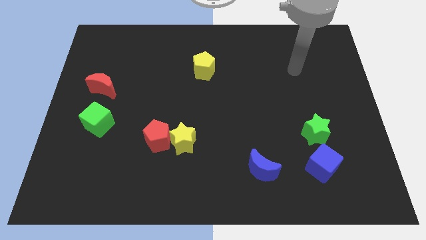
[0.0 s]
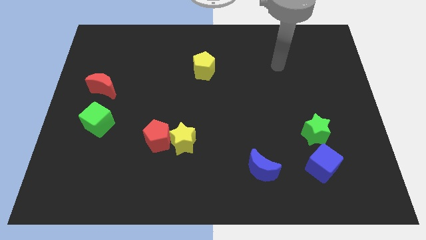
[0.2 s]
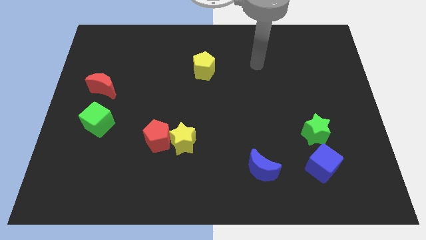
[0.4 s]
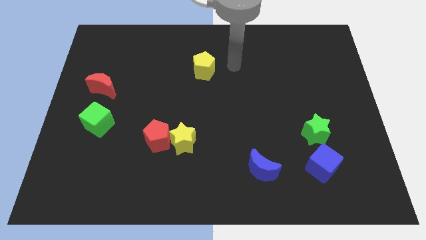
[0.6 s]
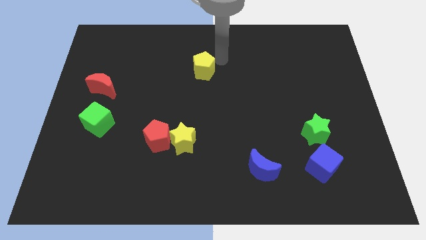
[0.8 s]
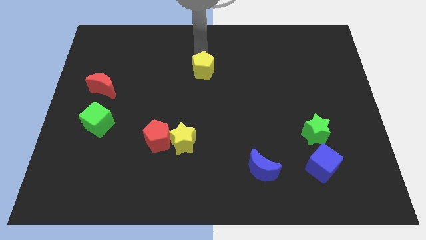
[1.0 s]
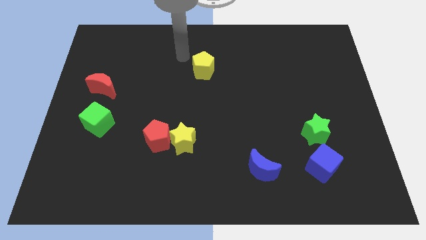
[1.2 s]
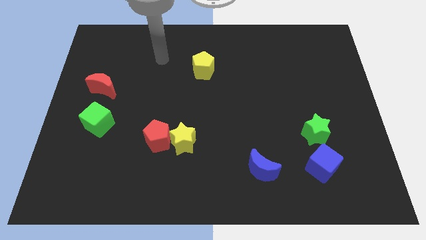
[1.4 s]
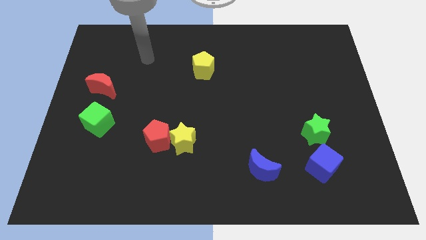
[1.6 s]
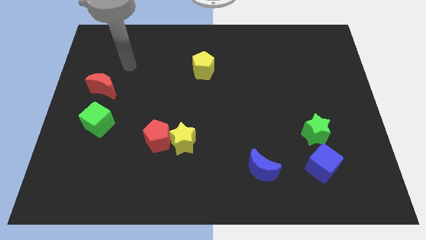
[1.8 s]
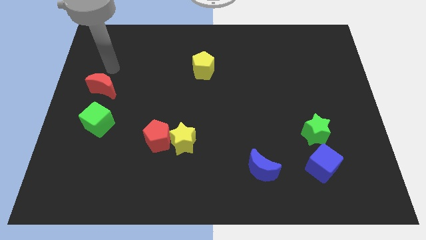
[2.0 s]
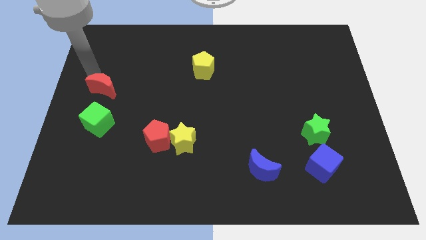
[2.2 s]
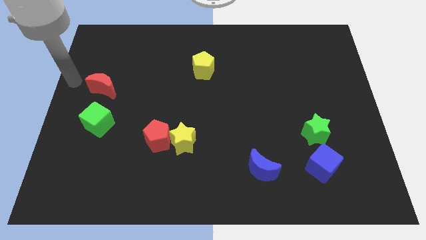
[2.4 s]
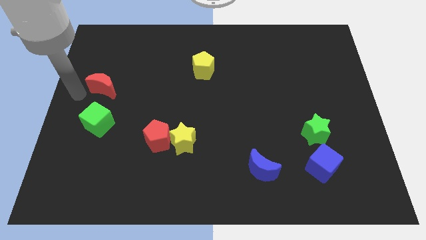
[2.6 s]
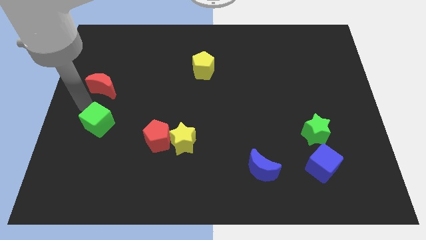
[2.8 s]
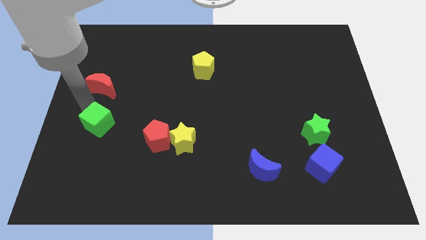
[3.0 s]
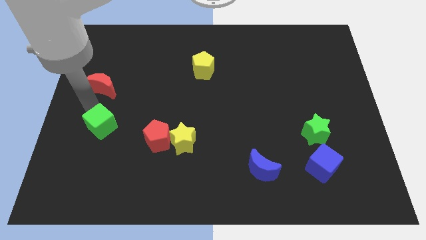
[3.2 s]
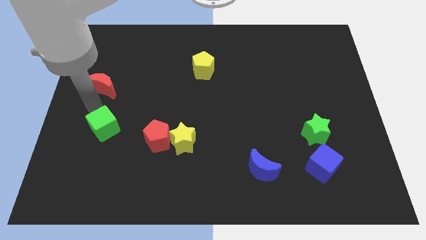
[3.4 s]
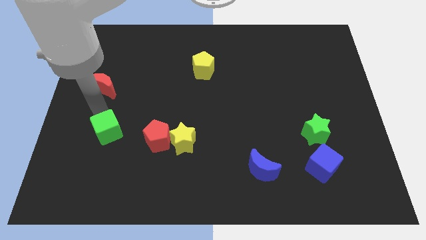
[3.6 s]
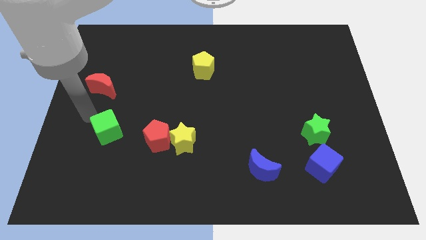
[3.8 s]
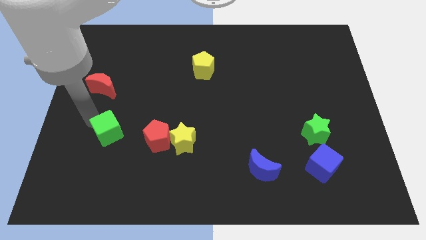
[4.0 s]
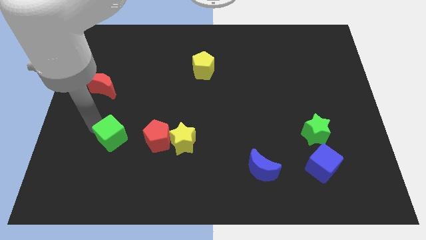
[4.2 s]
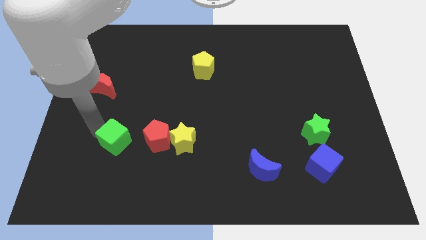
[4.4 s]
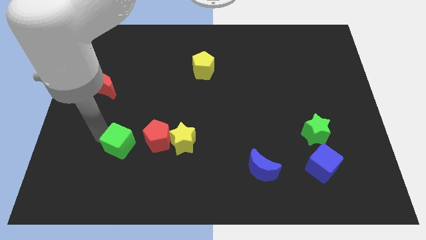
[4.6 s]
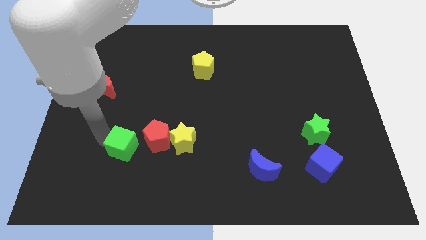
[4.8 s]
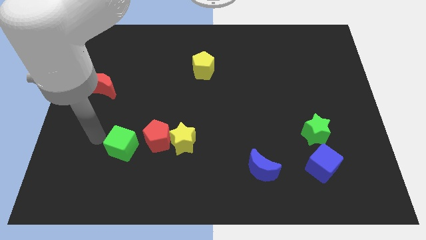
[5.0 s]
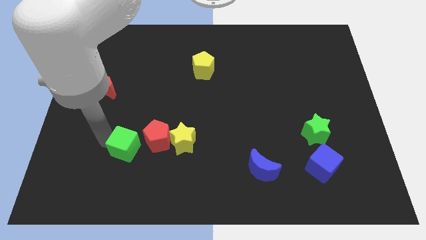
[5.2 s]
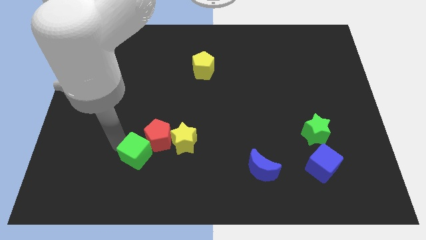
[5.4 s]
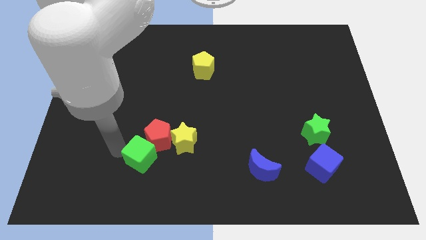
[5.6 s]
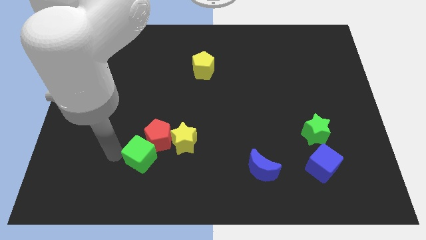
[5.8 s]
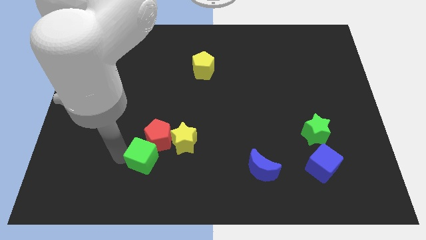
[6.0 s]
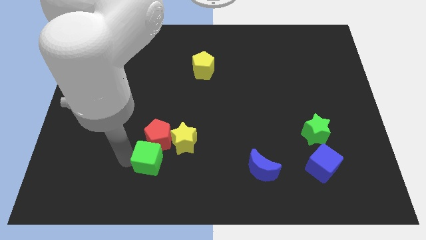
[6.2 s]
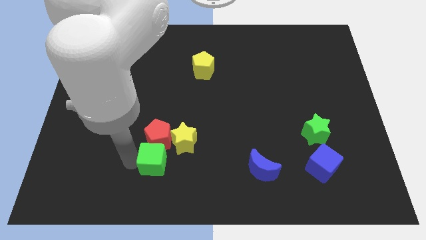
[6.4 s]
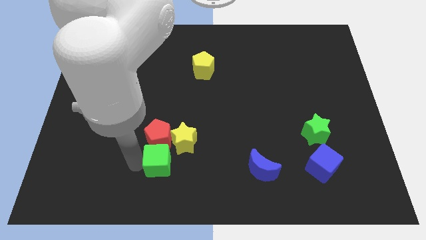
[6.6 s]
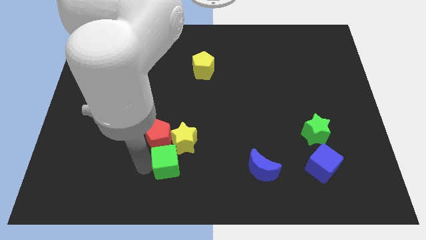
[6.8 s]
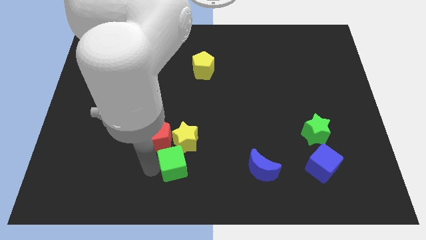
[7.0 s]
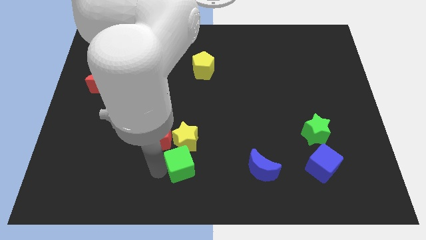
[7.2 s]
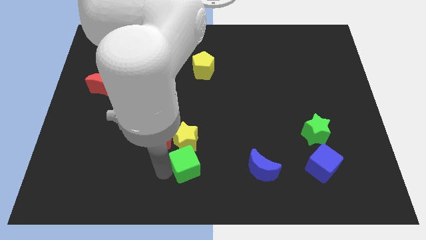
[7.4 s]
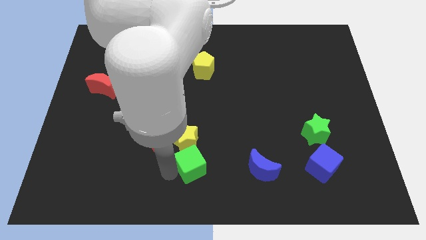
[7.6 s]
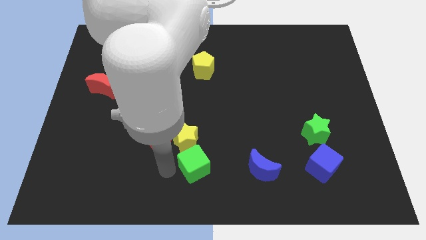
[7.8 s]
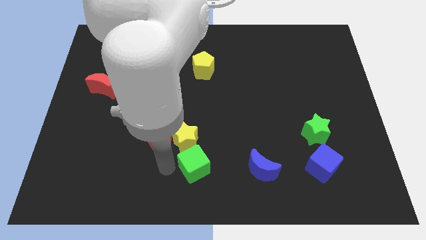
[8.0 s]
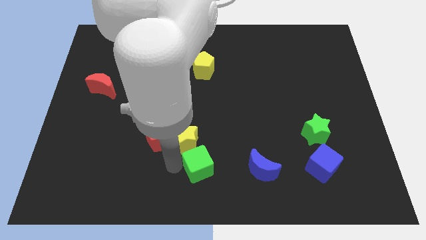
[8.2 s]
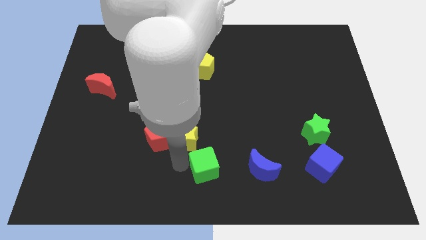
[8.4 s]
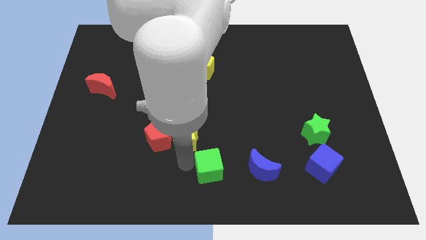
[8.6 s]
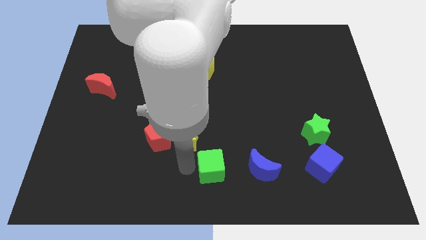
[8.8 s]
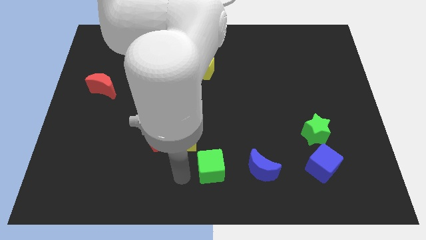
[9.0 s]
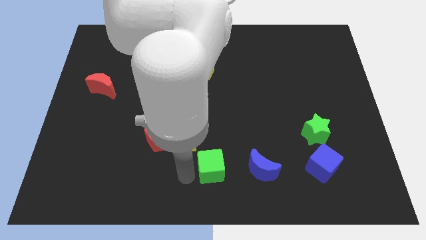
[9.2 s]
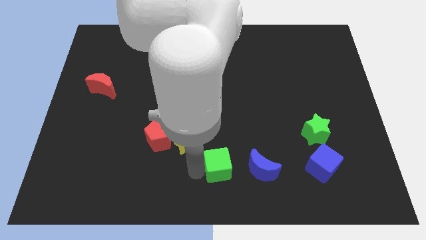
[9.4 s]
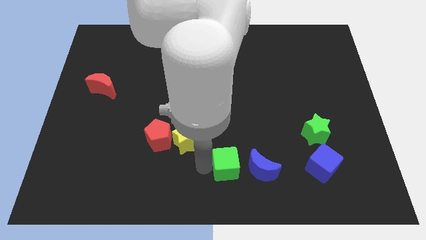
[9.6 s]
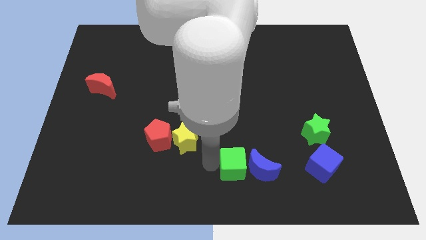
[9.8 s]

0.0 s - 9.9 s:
put the green cube towards the blue moon

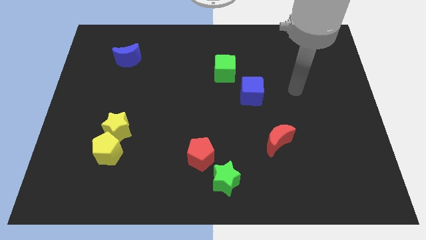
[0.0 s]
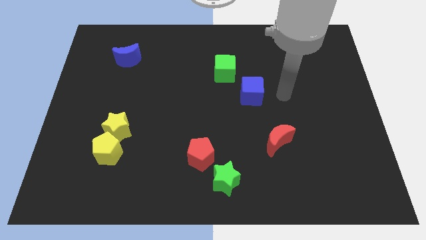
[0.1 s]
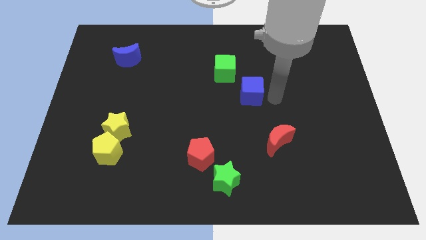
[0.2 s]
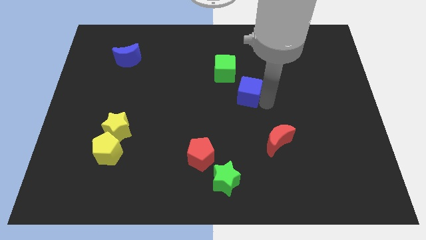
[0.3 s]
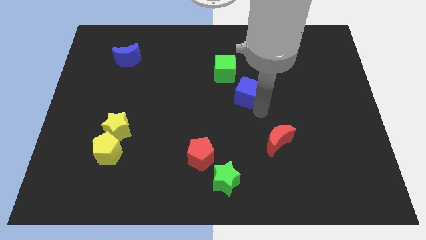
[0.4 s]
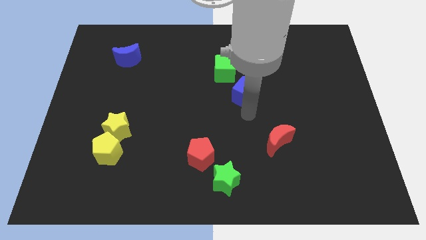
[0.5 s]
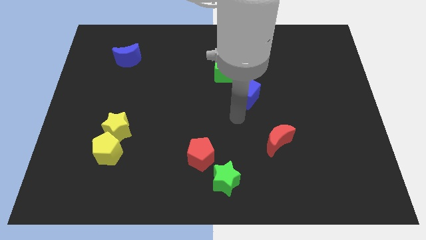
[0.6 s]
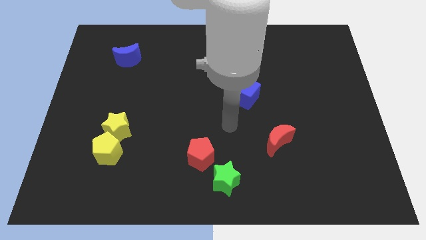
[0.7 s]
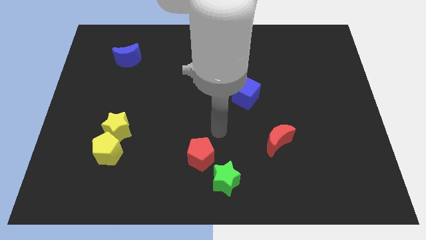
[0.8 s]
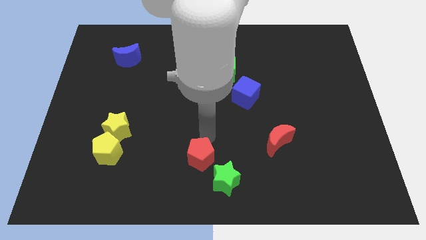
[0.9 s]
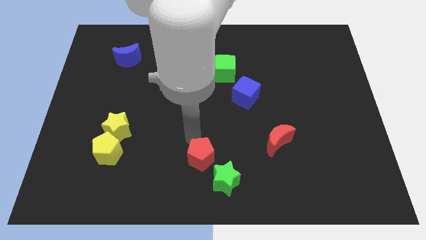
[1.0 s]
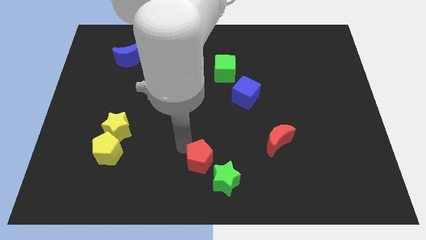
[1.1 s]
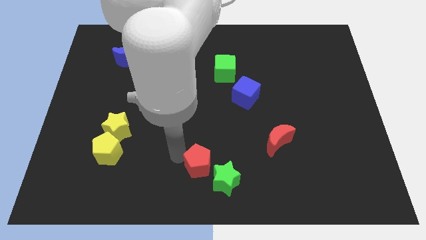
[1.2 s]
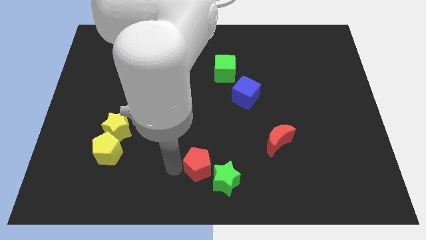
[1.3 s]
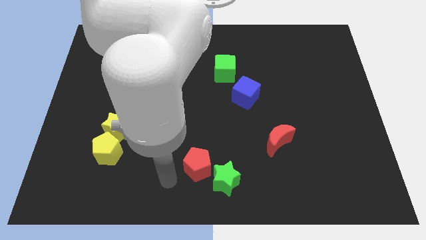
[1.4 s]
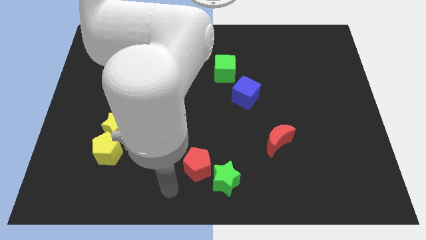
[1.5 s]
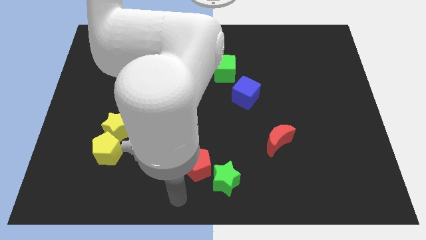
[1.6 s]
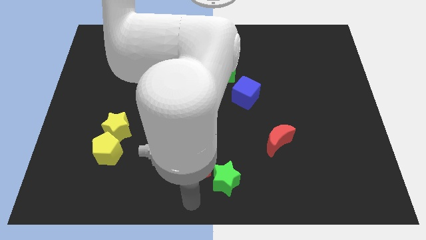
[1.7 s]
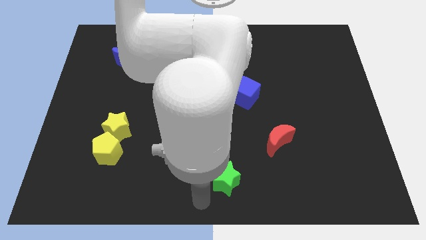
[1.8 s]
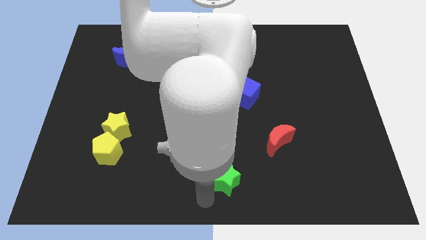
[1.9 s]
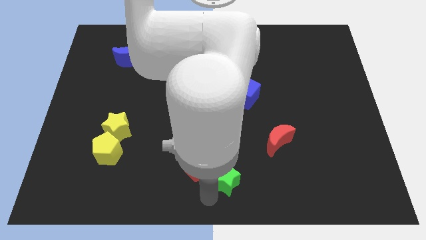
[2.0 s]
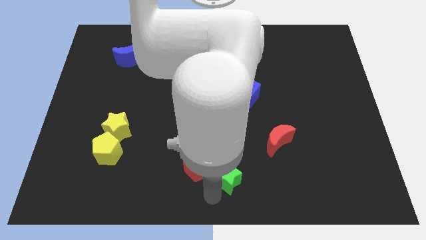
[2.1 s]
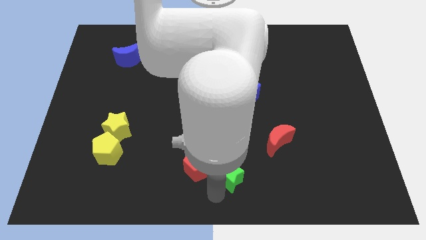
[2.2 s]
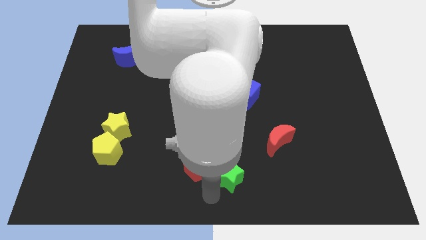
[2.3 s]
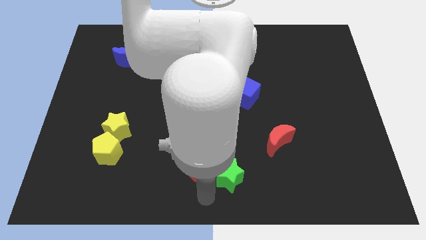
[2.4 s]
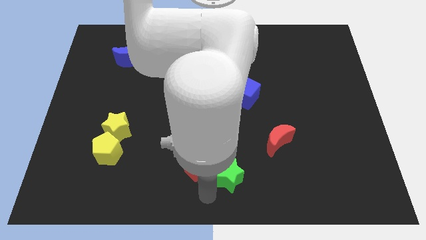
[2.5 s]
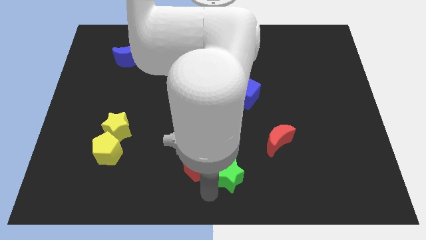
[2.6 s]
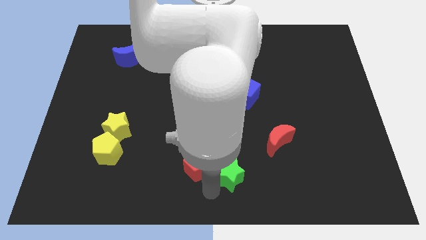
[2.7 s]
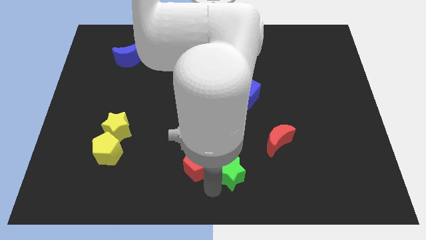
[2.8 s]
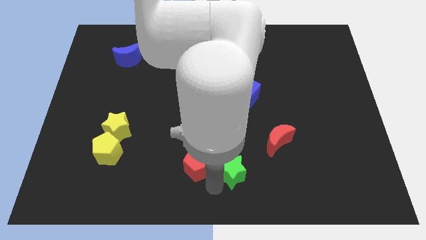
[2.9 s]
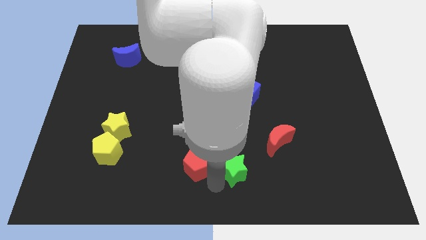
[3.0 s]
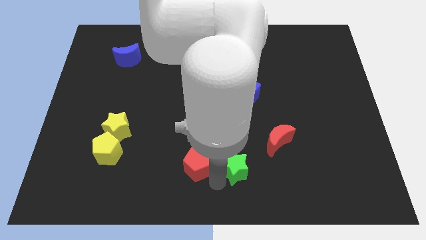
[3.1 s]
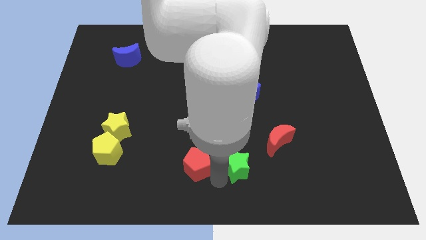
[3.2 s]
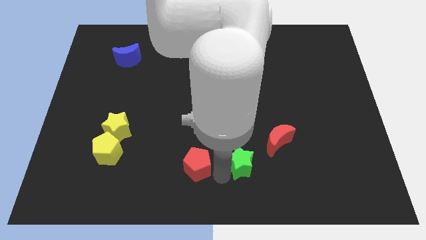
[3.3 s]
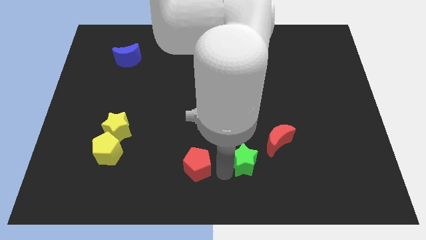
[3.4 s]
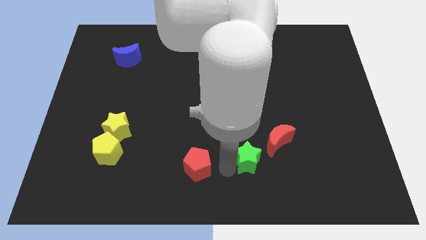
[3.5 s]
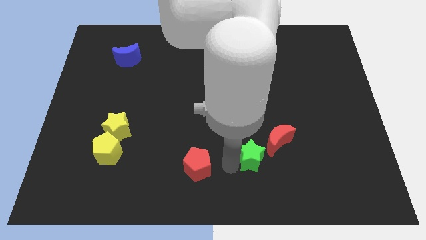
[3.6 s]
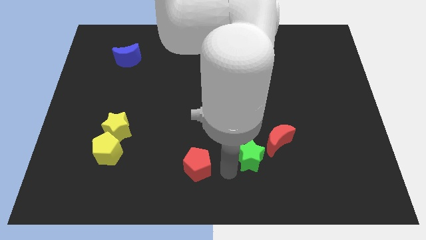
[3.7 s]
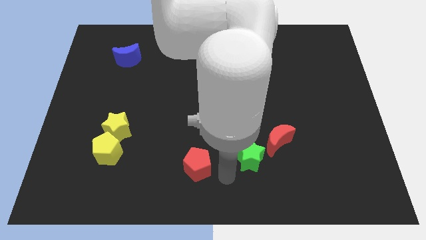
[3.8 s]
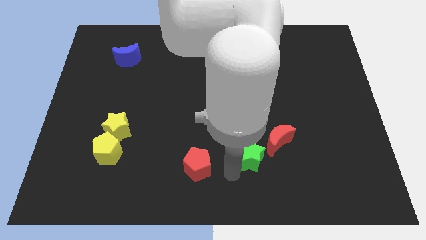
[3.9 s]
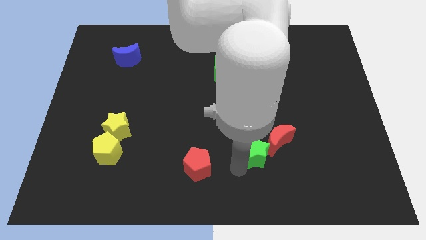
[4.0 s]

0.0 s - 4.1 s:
slide the green star close to the red moon
